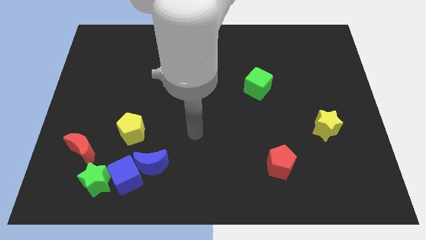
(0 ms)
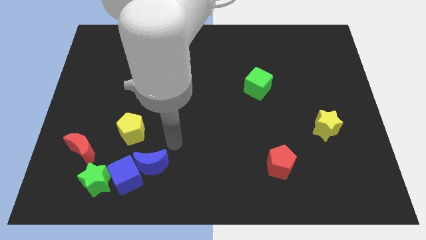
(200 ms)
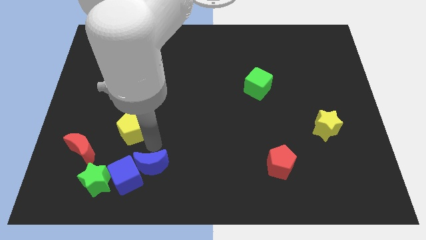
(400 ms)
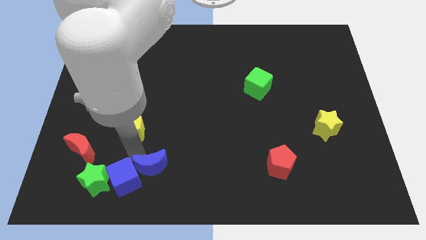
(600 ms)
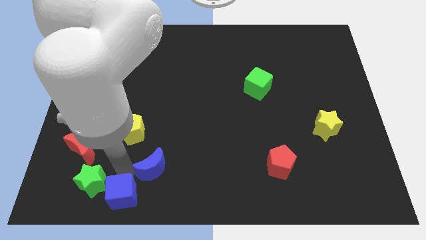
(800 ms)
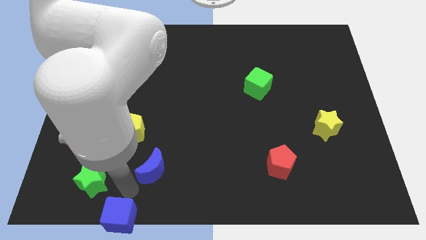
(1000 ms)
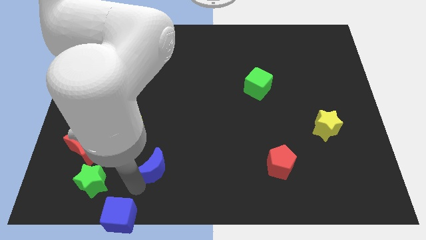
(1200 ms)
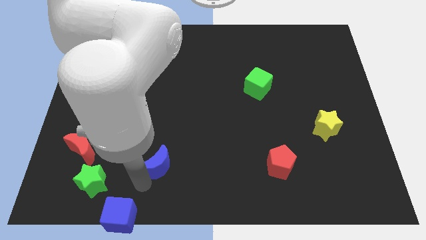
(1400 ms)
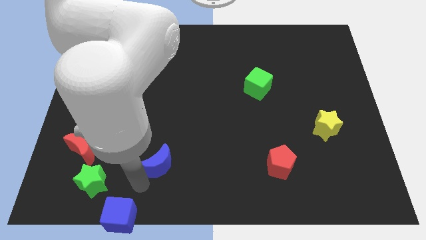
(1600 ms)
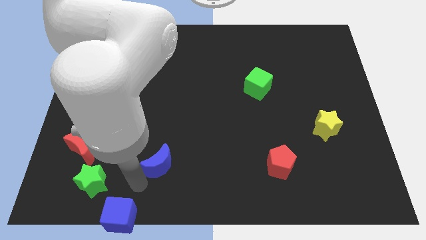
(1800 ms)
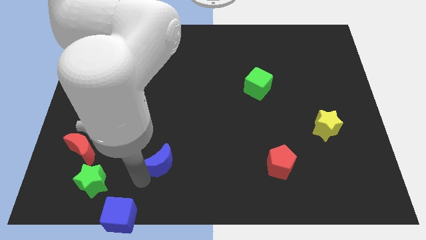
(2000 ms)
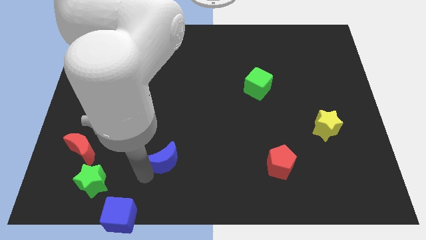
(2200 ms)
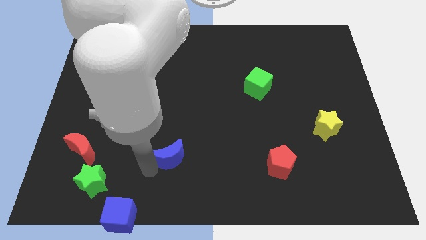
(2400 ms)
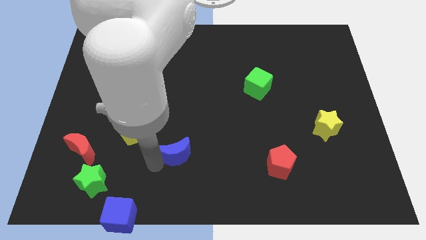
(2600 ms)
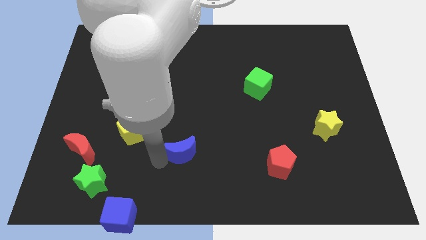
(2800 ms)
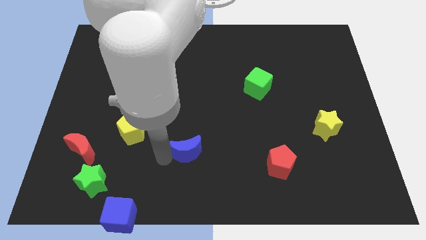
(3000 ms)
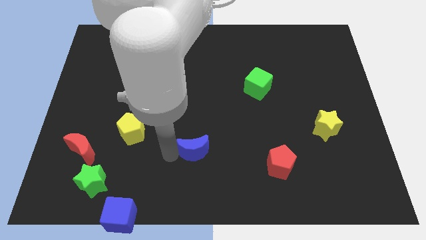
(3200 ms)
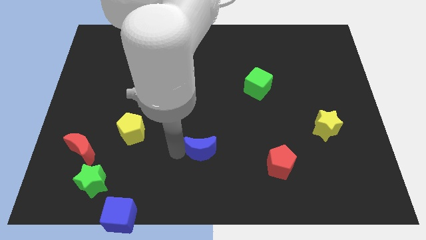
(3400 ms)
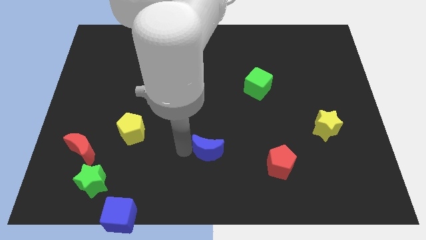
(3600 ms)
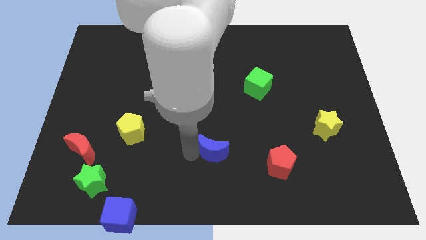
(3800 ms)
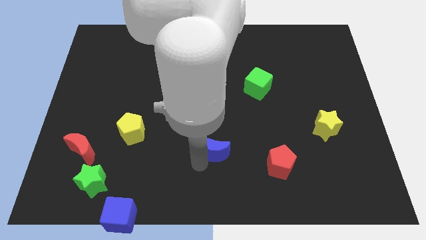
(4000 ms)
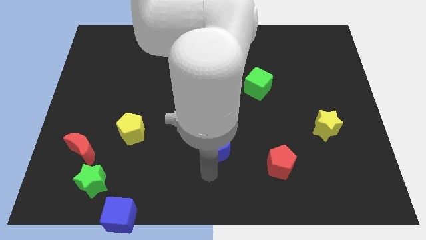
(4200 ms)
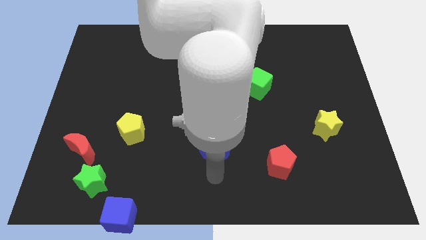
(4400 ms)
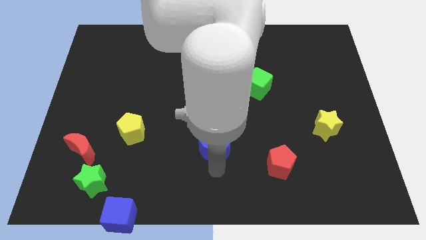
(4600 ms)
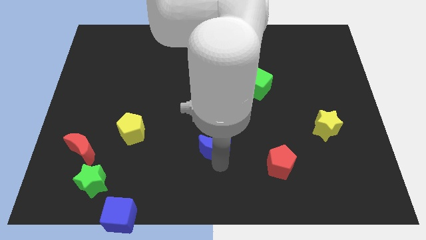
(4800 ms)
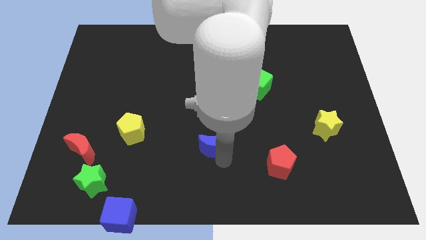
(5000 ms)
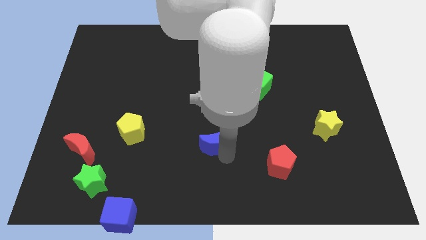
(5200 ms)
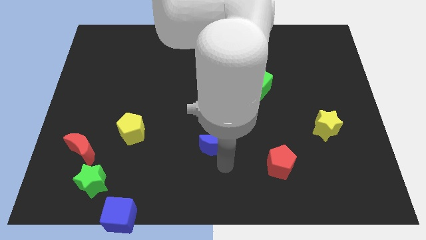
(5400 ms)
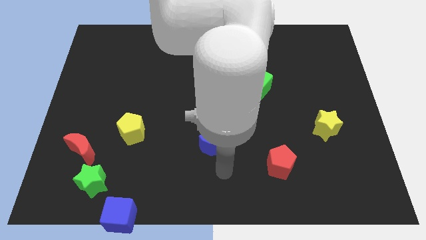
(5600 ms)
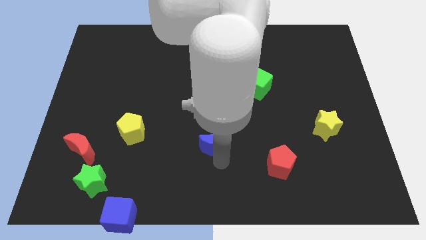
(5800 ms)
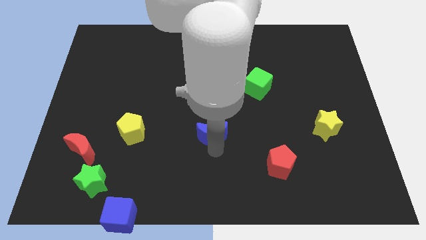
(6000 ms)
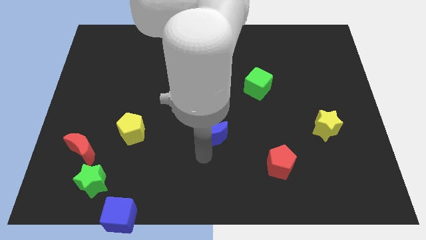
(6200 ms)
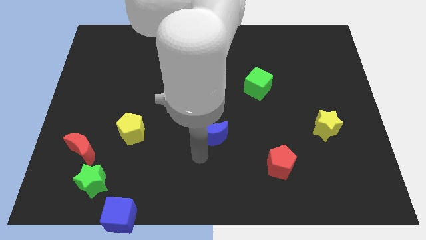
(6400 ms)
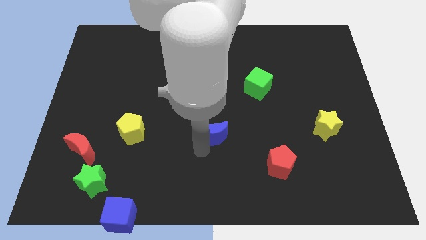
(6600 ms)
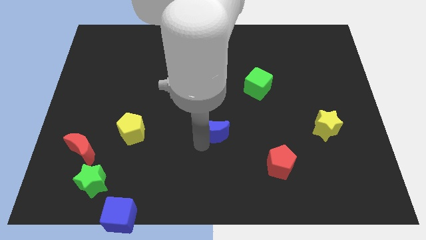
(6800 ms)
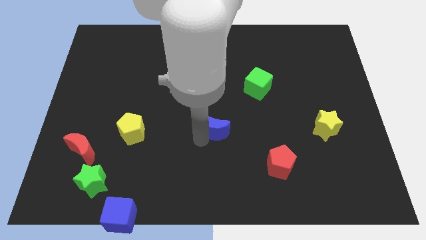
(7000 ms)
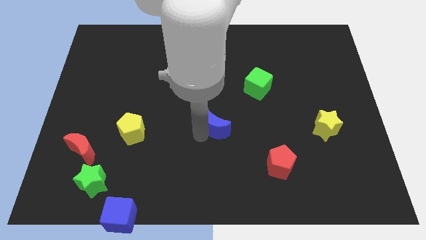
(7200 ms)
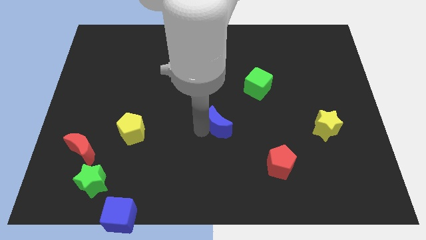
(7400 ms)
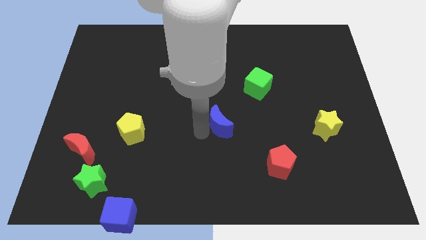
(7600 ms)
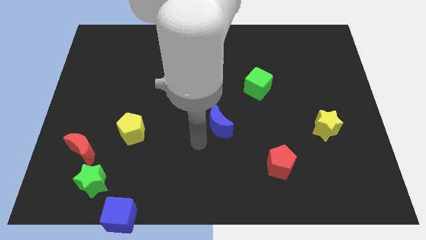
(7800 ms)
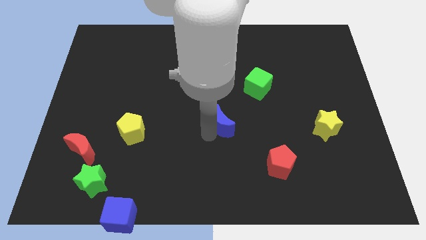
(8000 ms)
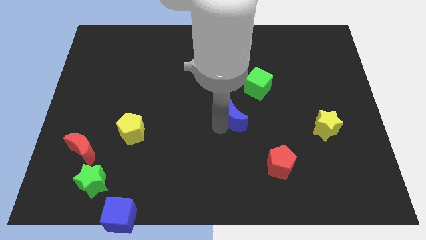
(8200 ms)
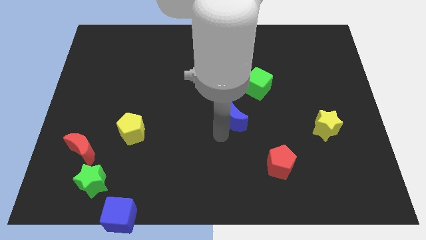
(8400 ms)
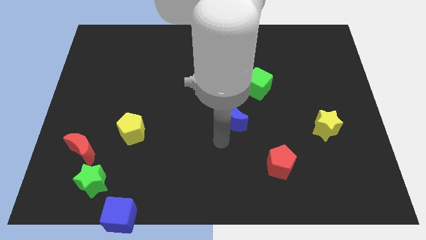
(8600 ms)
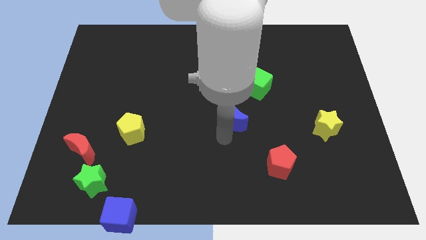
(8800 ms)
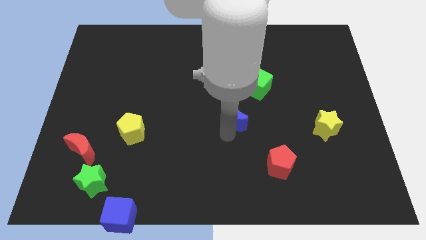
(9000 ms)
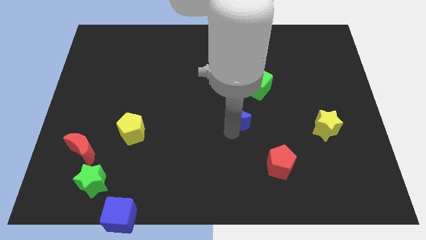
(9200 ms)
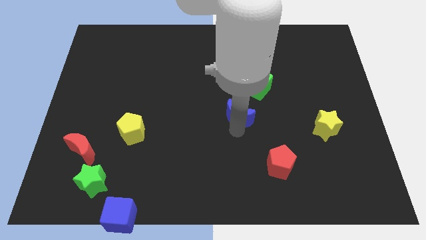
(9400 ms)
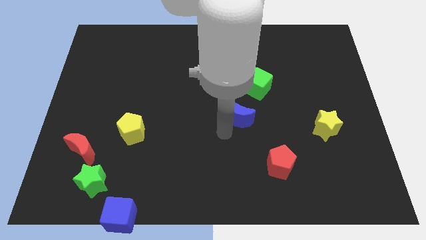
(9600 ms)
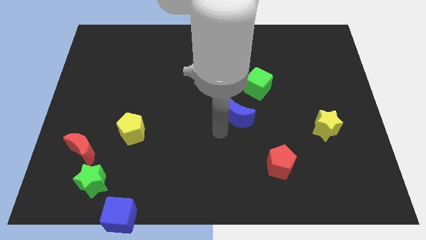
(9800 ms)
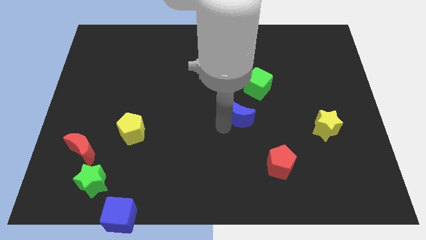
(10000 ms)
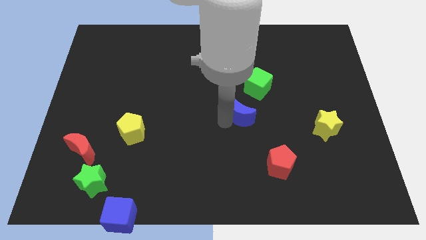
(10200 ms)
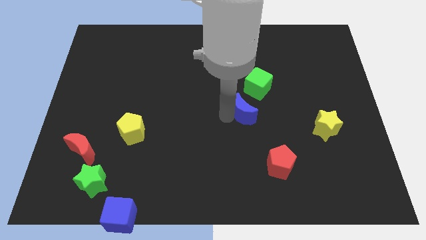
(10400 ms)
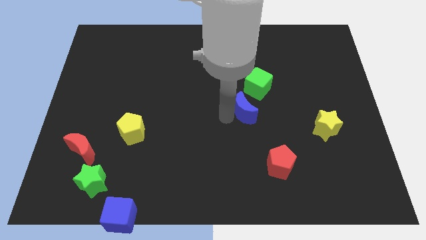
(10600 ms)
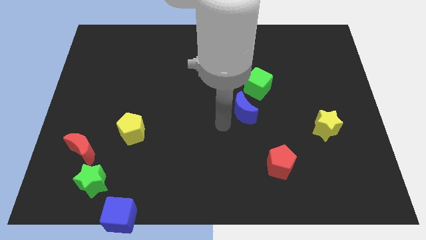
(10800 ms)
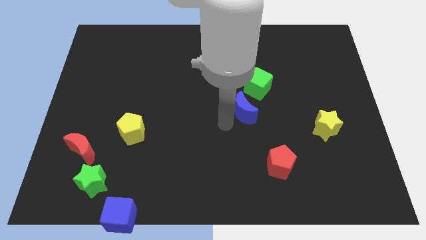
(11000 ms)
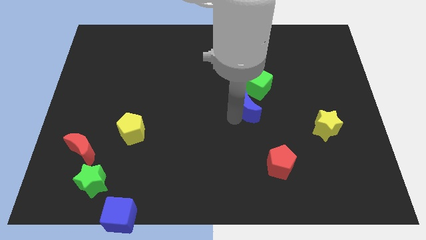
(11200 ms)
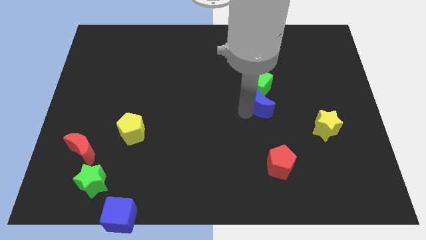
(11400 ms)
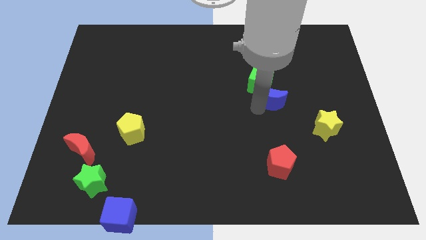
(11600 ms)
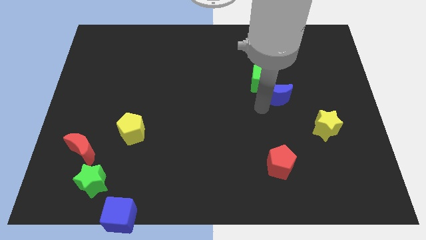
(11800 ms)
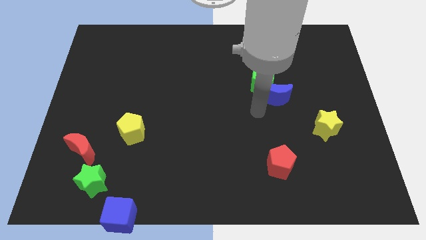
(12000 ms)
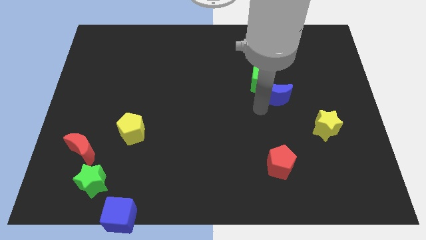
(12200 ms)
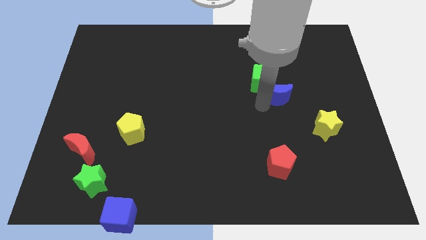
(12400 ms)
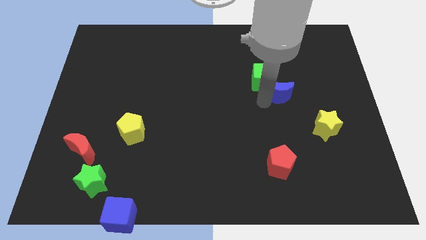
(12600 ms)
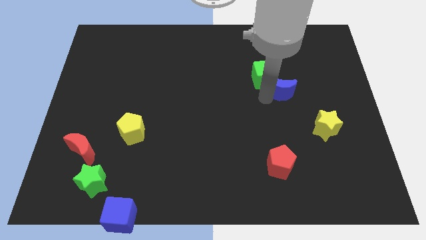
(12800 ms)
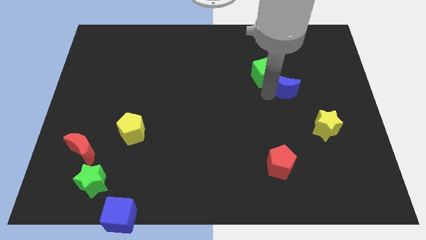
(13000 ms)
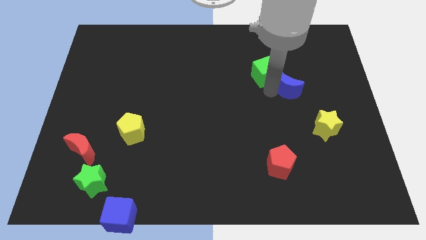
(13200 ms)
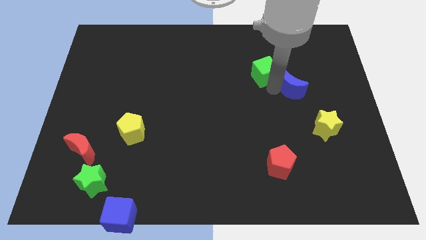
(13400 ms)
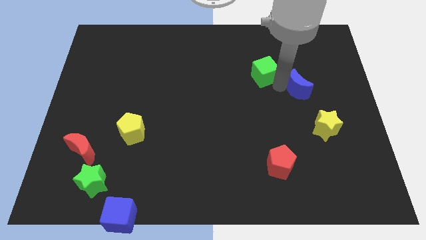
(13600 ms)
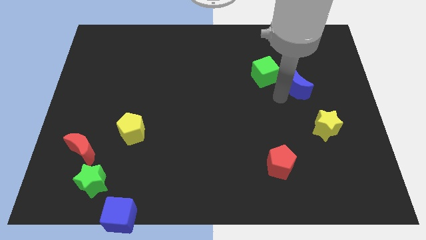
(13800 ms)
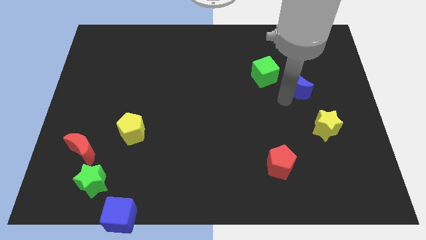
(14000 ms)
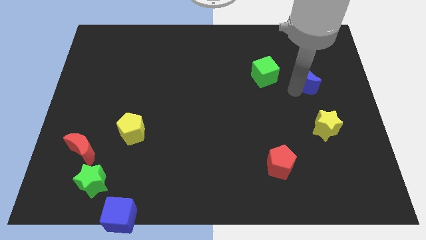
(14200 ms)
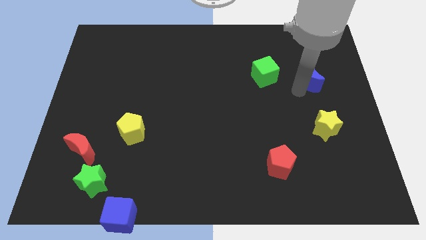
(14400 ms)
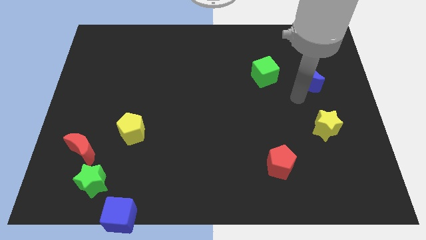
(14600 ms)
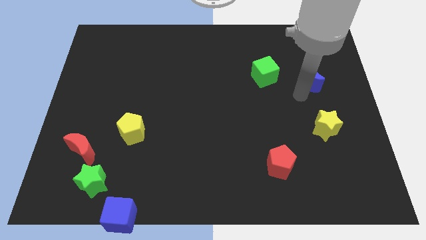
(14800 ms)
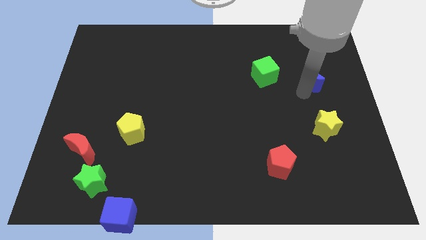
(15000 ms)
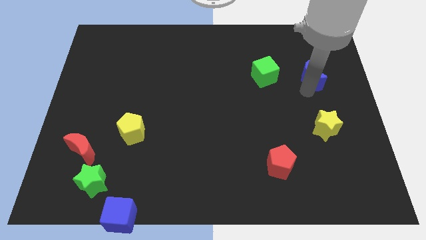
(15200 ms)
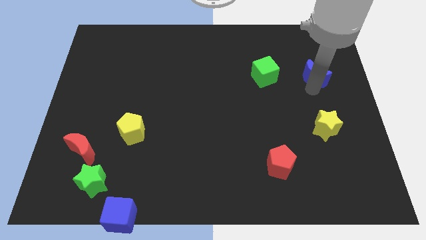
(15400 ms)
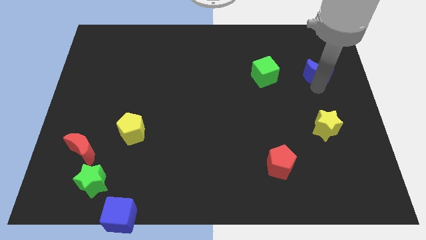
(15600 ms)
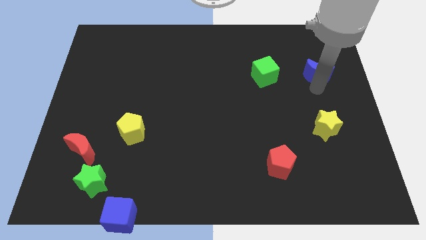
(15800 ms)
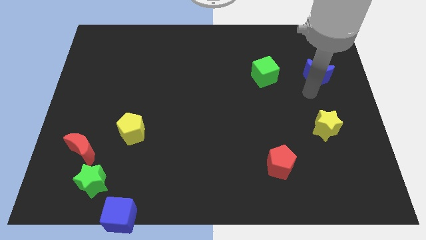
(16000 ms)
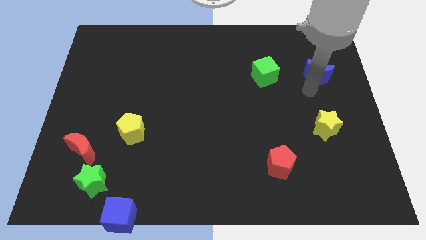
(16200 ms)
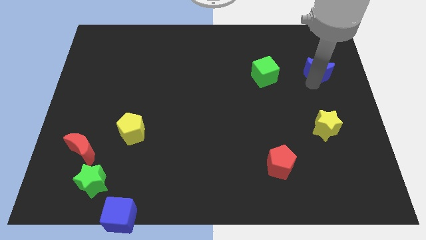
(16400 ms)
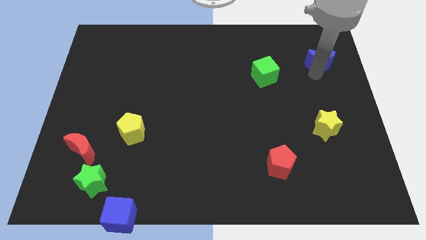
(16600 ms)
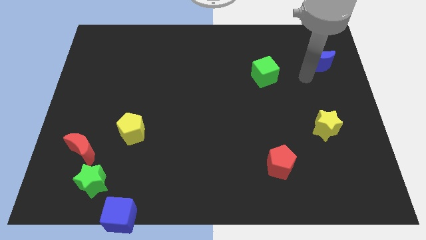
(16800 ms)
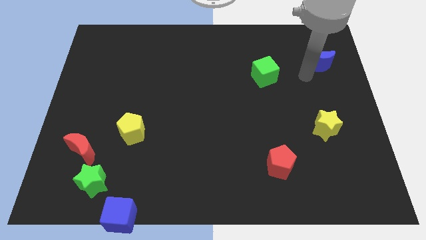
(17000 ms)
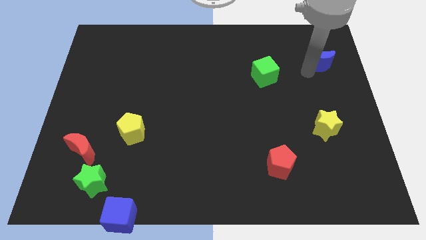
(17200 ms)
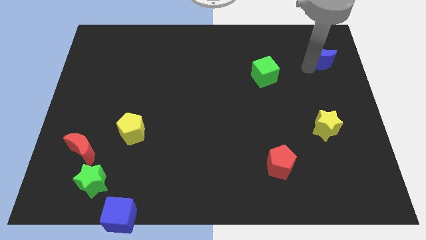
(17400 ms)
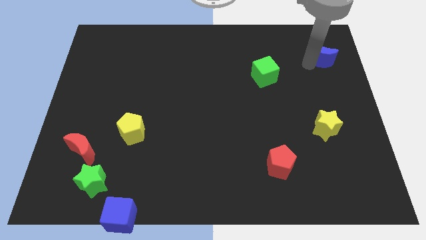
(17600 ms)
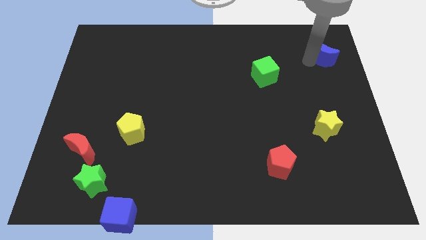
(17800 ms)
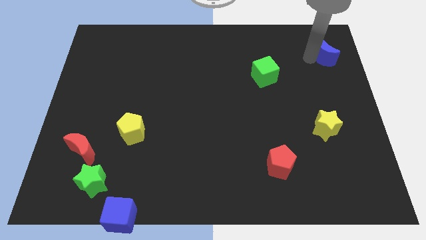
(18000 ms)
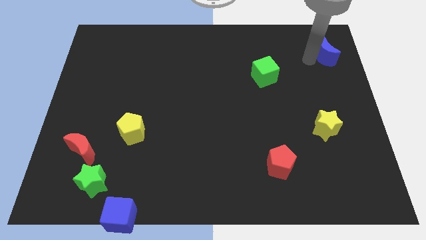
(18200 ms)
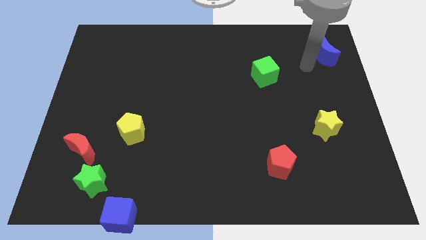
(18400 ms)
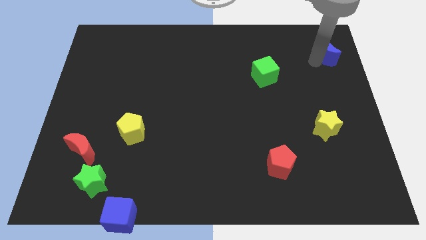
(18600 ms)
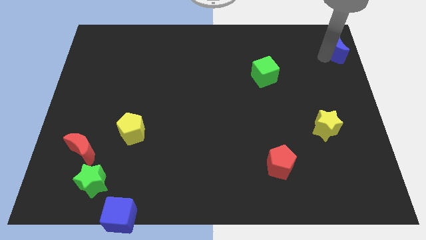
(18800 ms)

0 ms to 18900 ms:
push the blue moon to the top right corner
